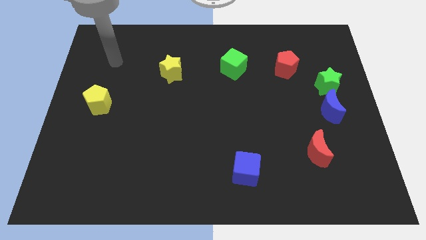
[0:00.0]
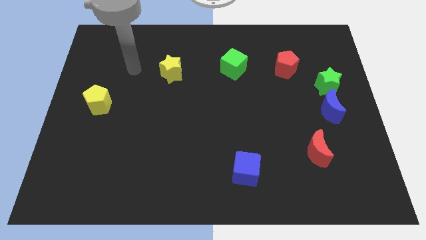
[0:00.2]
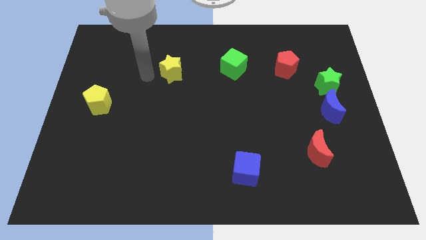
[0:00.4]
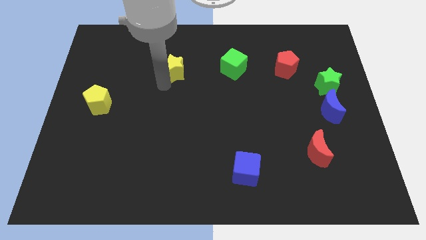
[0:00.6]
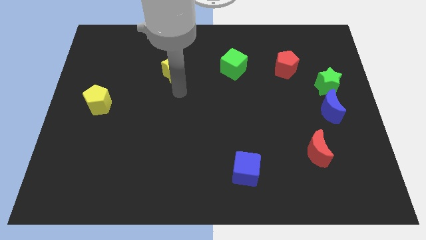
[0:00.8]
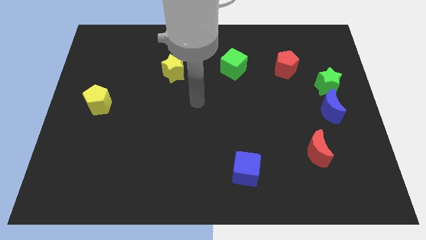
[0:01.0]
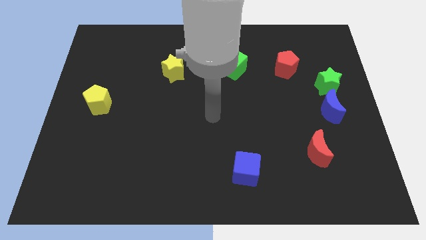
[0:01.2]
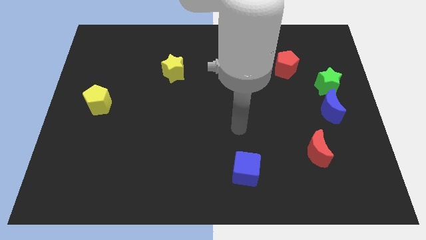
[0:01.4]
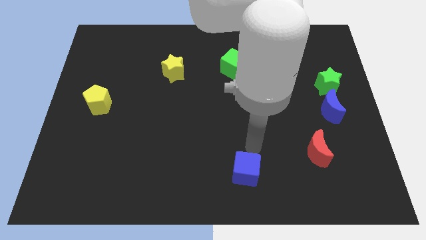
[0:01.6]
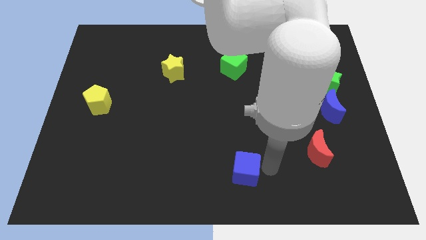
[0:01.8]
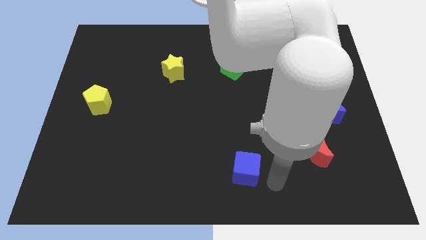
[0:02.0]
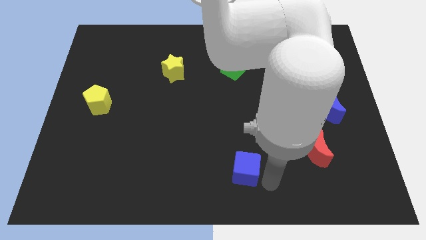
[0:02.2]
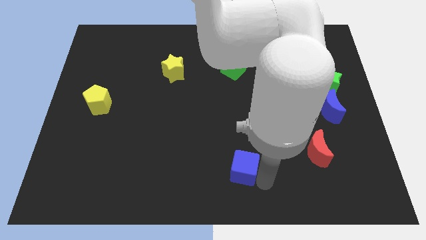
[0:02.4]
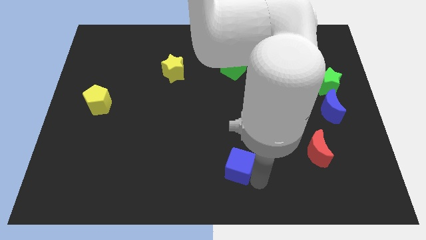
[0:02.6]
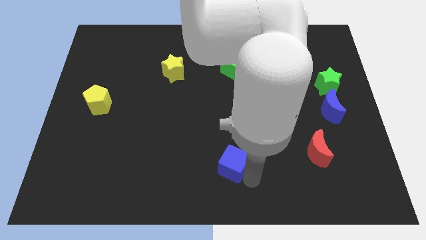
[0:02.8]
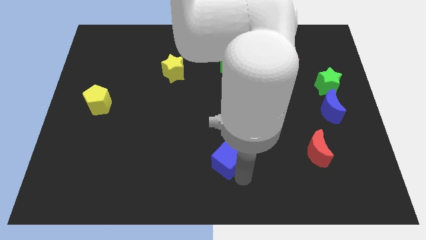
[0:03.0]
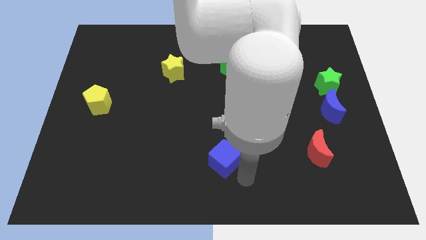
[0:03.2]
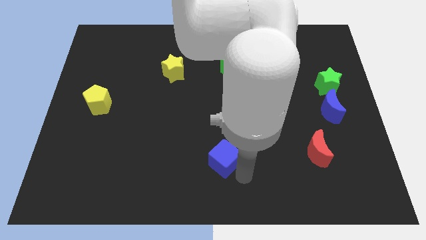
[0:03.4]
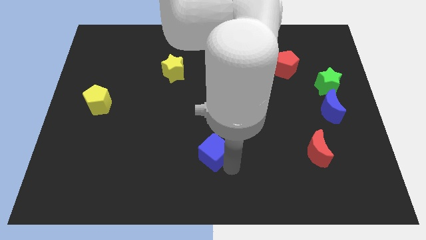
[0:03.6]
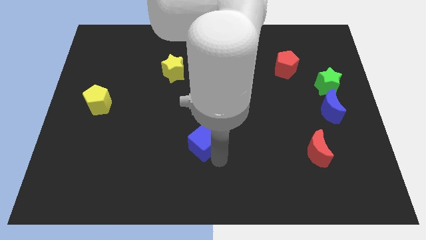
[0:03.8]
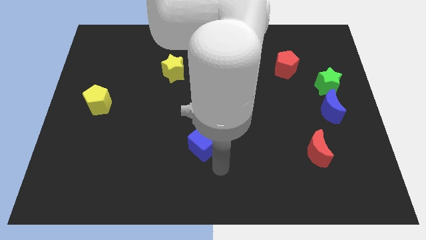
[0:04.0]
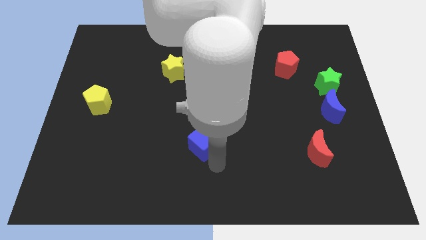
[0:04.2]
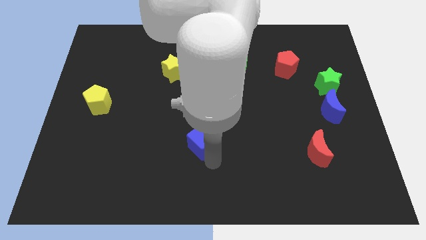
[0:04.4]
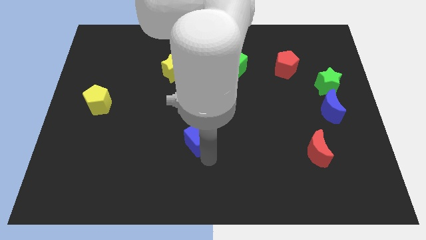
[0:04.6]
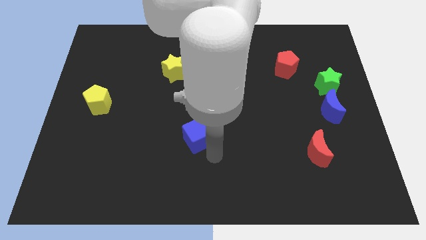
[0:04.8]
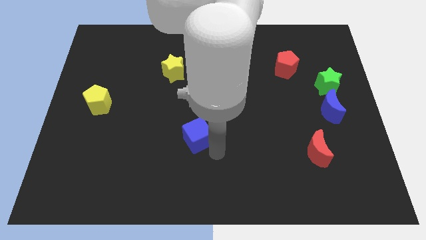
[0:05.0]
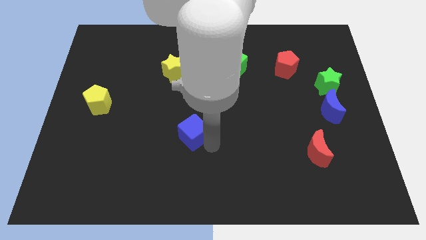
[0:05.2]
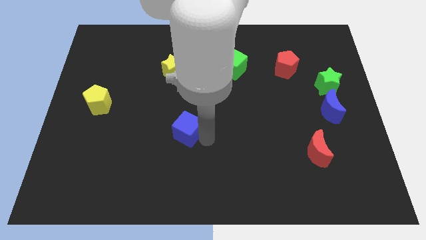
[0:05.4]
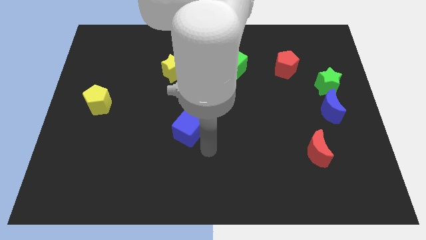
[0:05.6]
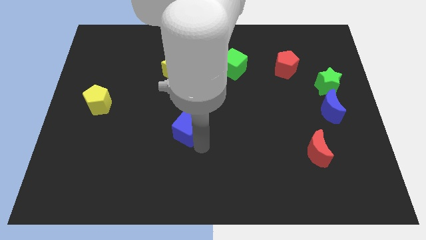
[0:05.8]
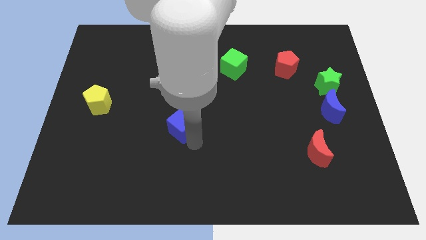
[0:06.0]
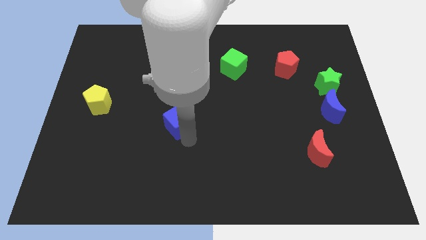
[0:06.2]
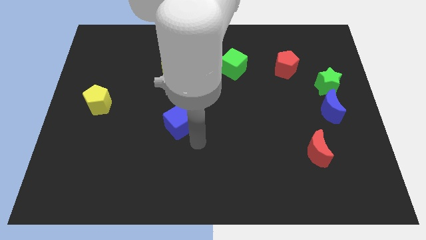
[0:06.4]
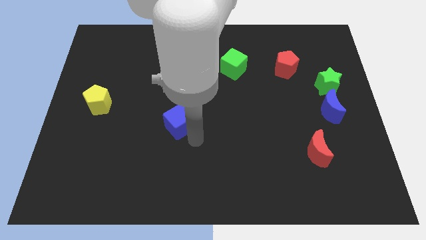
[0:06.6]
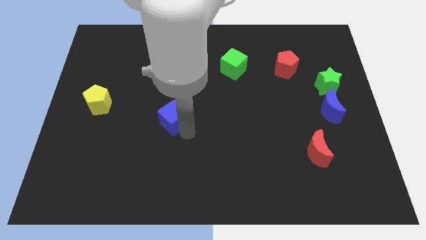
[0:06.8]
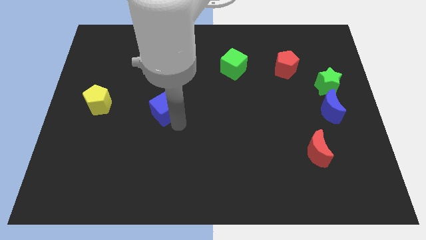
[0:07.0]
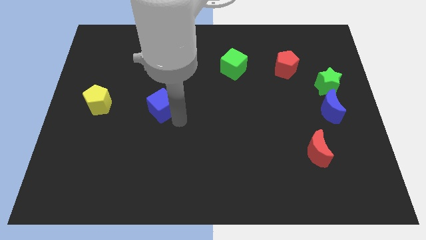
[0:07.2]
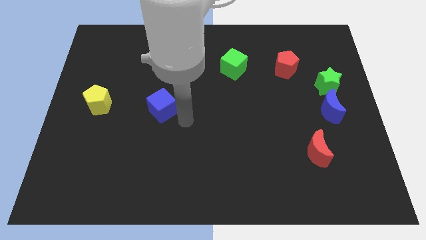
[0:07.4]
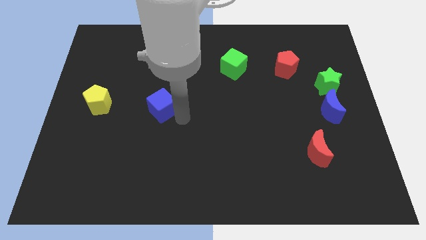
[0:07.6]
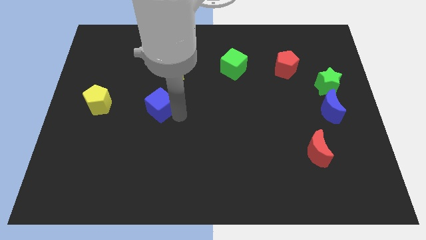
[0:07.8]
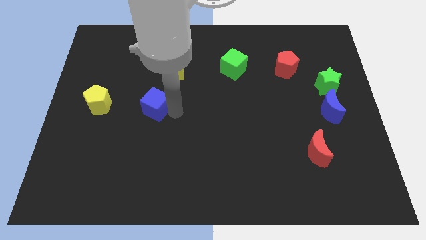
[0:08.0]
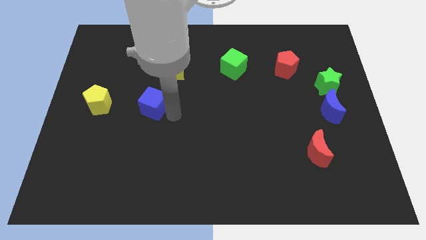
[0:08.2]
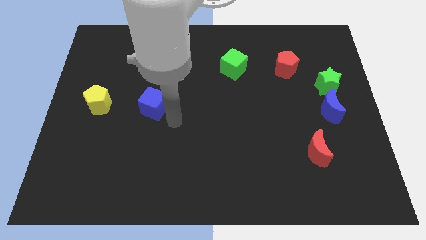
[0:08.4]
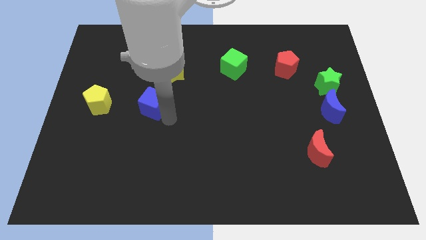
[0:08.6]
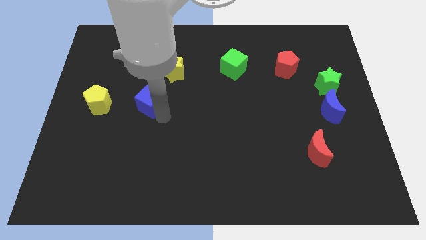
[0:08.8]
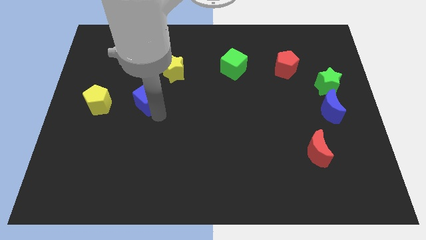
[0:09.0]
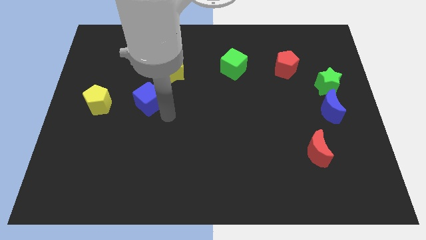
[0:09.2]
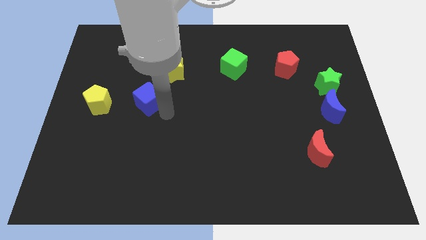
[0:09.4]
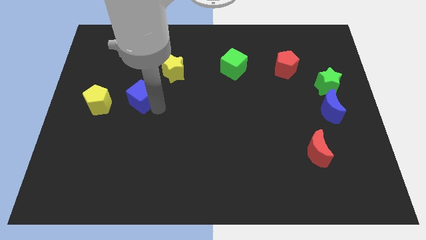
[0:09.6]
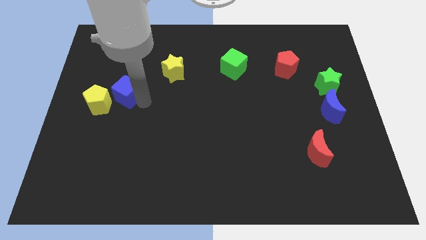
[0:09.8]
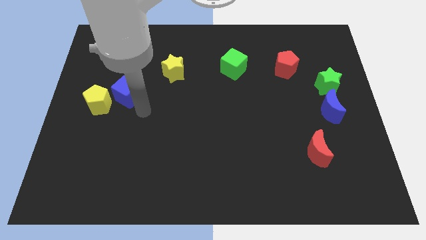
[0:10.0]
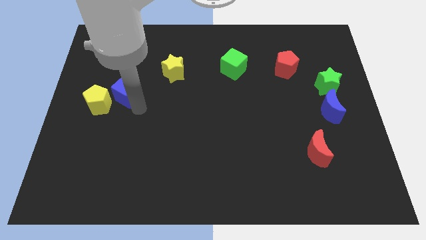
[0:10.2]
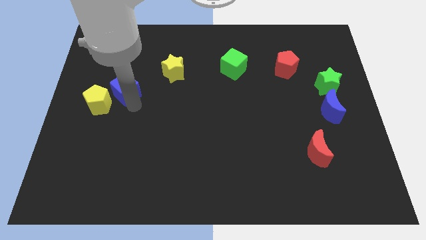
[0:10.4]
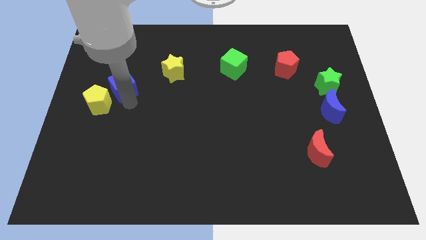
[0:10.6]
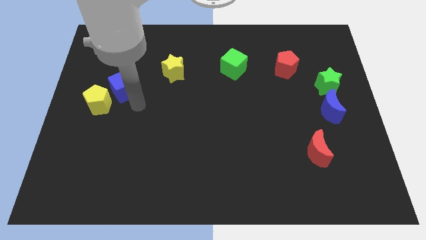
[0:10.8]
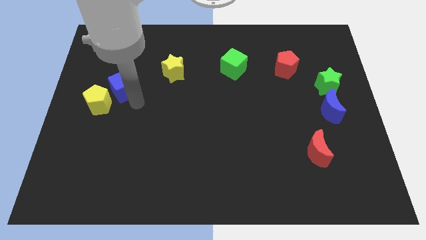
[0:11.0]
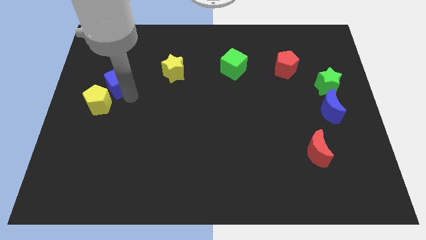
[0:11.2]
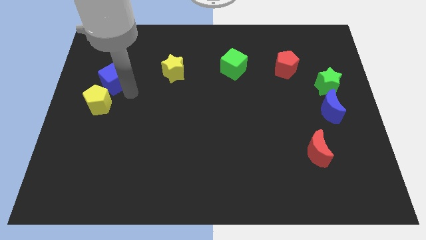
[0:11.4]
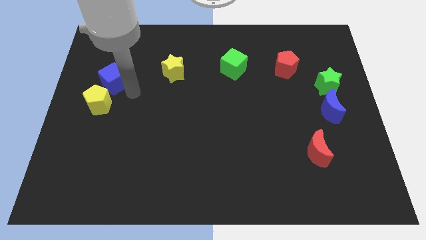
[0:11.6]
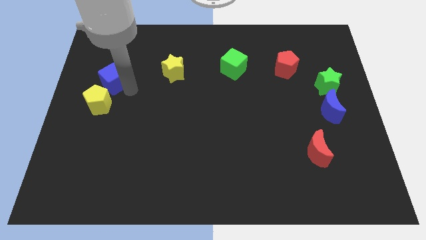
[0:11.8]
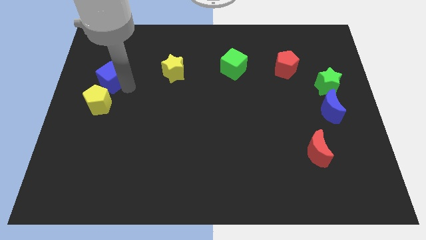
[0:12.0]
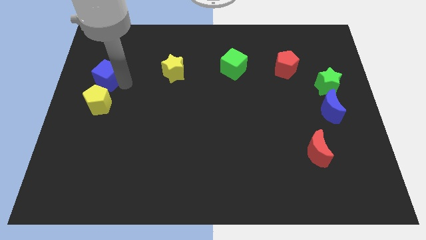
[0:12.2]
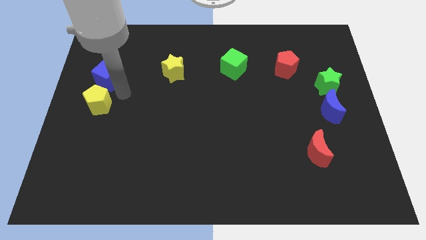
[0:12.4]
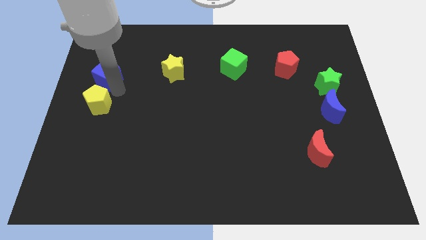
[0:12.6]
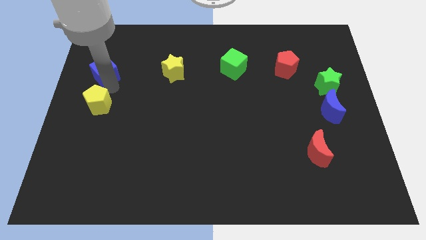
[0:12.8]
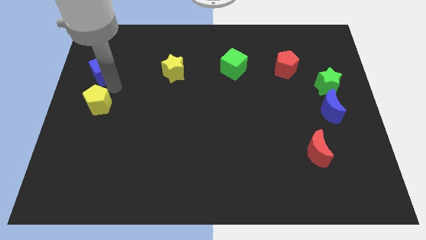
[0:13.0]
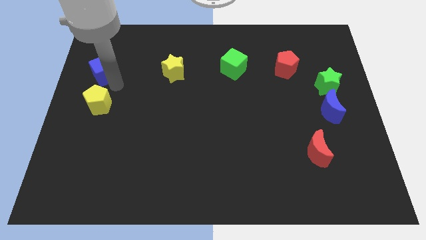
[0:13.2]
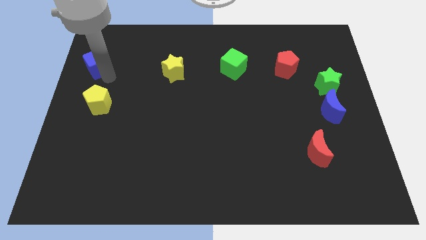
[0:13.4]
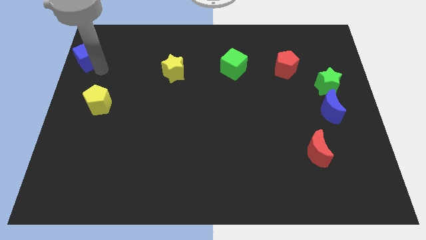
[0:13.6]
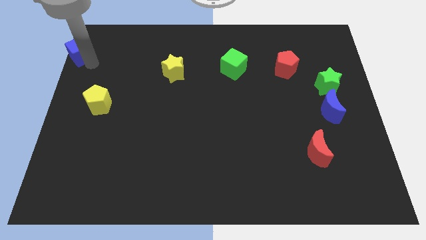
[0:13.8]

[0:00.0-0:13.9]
put the blue cube to the top left corner
